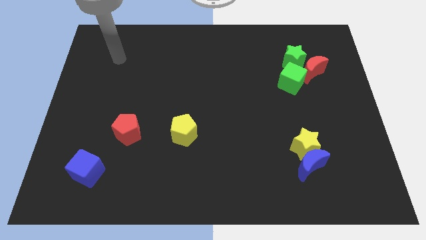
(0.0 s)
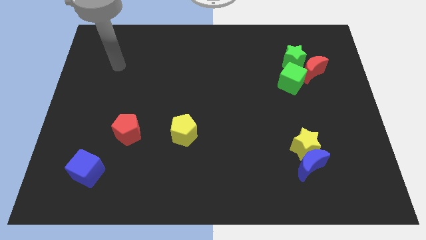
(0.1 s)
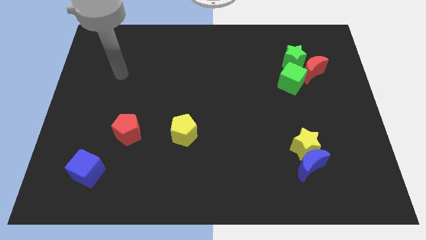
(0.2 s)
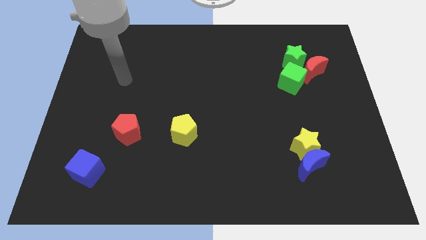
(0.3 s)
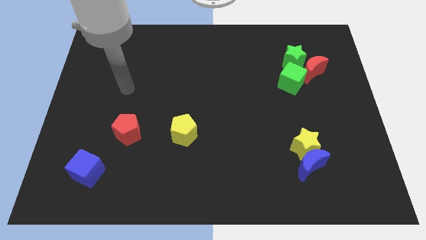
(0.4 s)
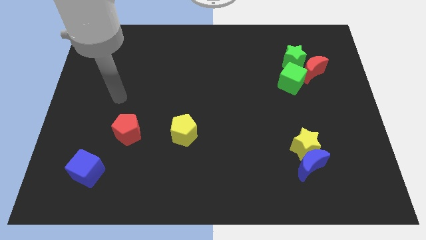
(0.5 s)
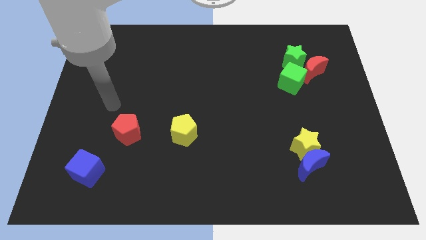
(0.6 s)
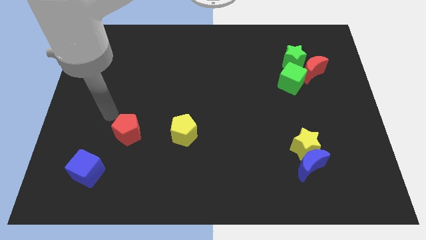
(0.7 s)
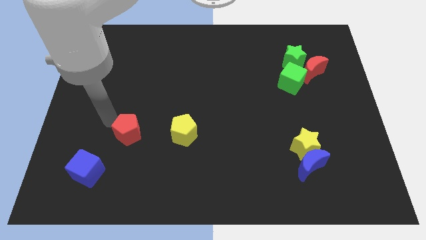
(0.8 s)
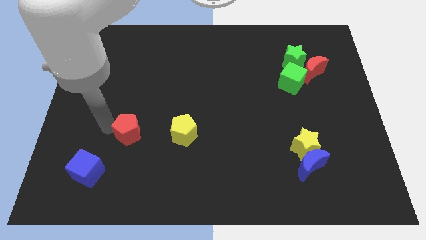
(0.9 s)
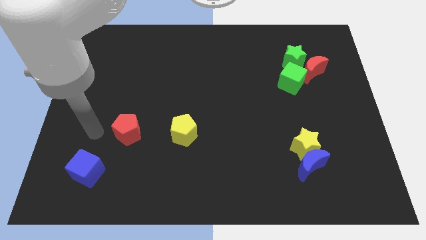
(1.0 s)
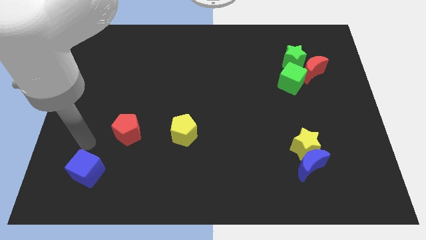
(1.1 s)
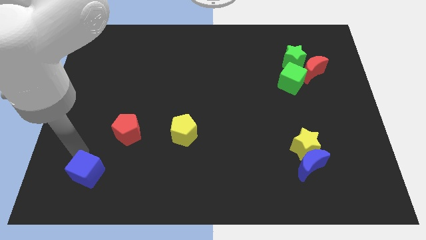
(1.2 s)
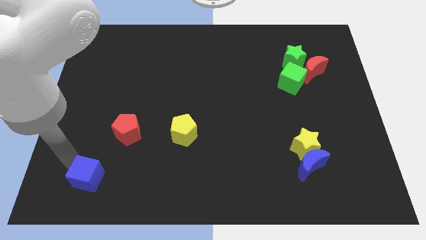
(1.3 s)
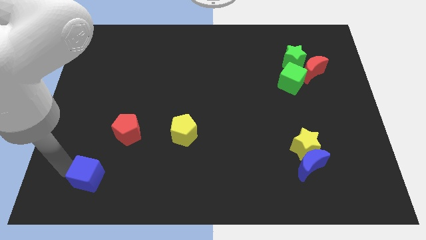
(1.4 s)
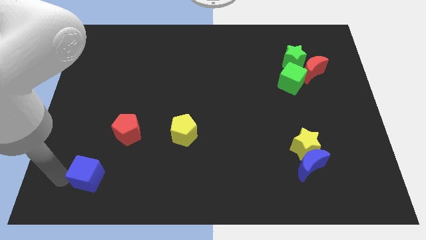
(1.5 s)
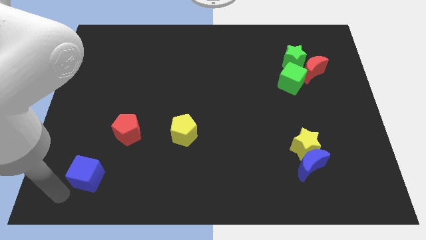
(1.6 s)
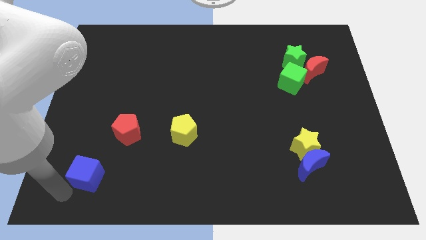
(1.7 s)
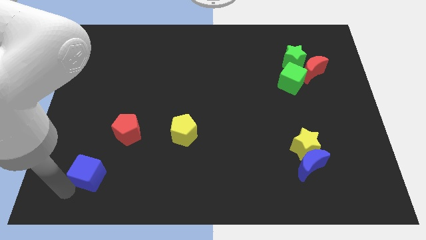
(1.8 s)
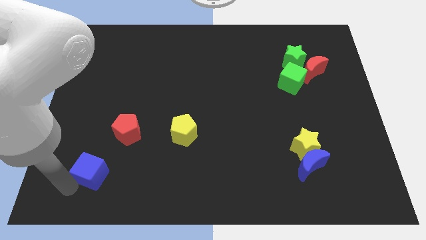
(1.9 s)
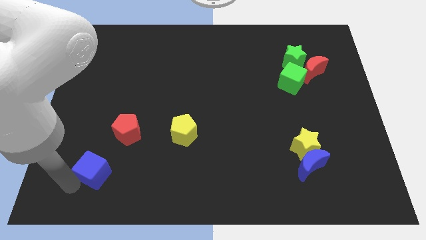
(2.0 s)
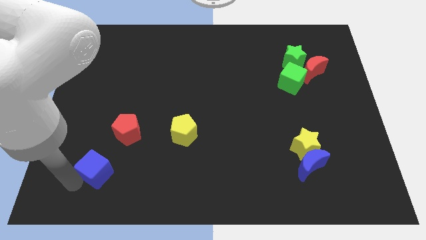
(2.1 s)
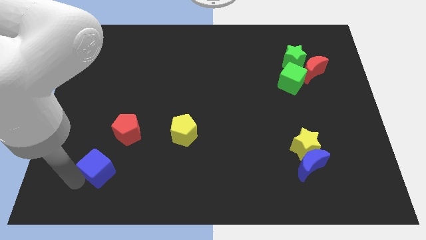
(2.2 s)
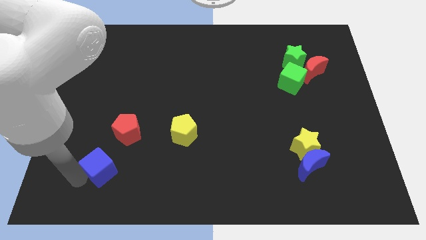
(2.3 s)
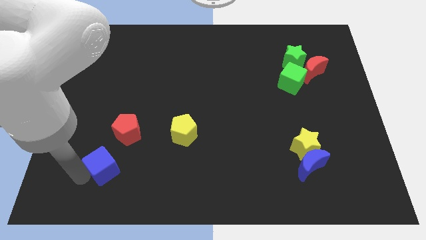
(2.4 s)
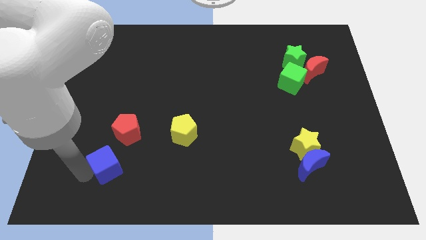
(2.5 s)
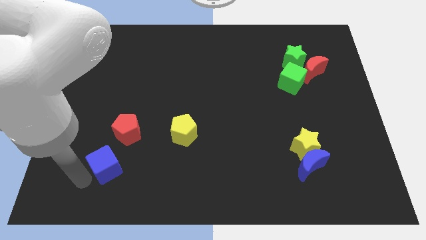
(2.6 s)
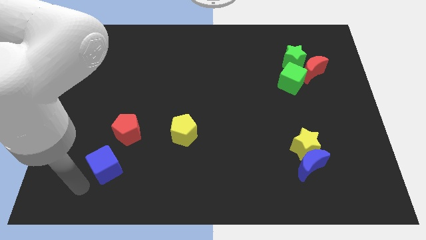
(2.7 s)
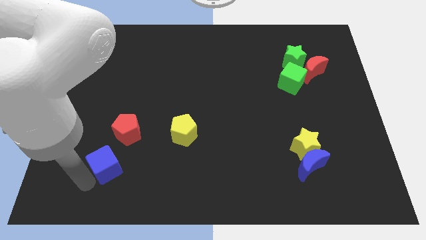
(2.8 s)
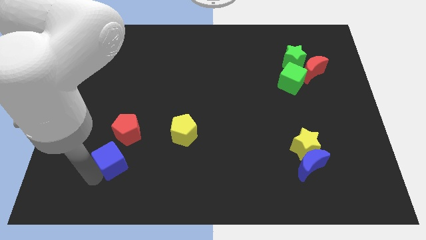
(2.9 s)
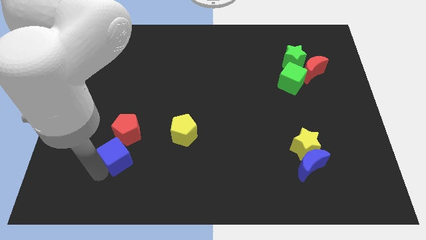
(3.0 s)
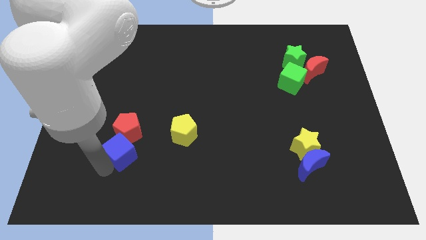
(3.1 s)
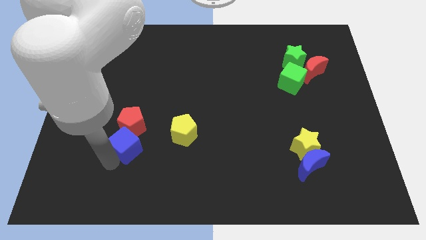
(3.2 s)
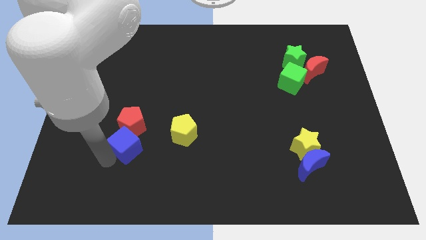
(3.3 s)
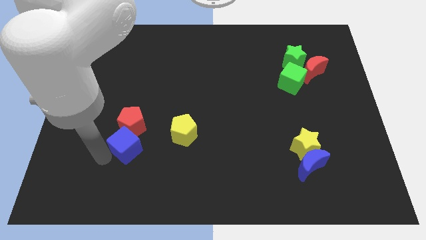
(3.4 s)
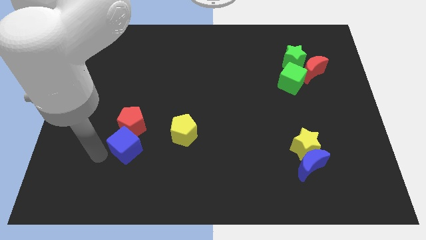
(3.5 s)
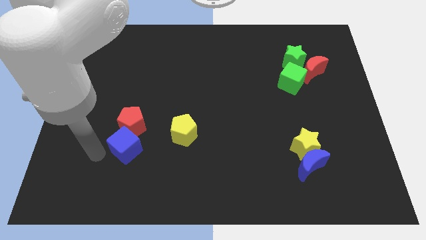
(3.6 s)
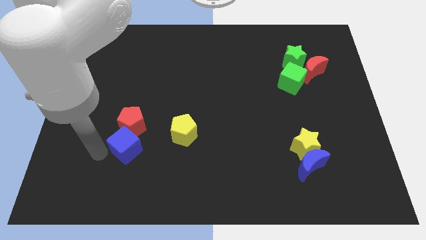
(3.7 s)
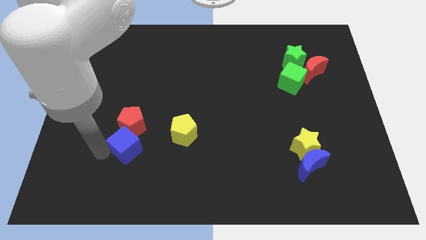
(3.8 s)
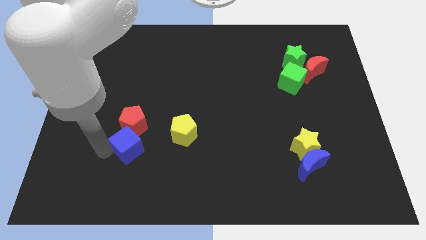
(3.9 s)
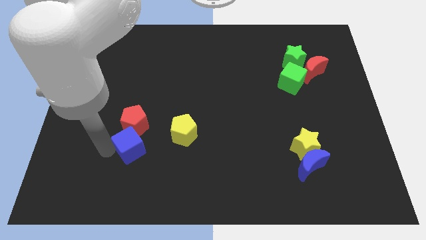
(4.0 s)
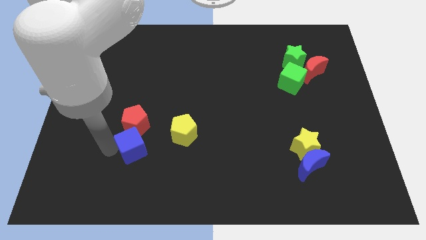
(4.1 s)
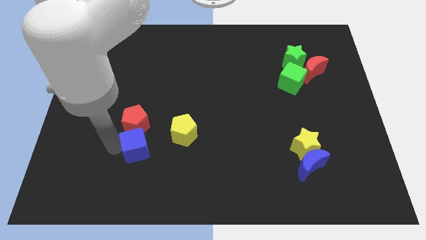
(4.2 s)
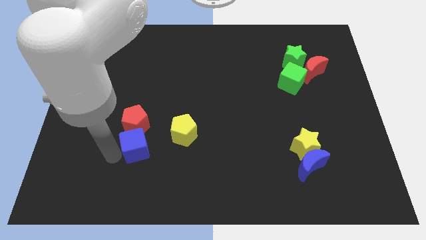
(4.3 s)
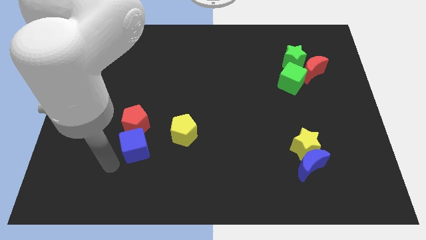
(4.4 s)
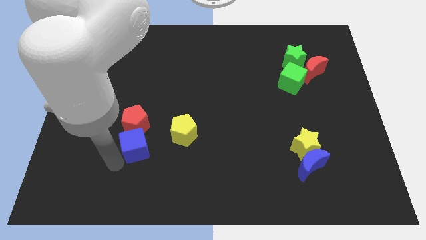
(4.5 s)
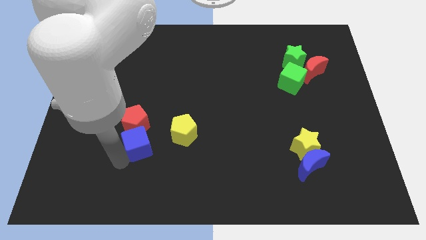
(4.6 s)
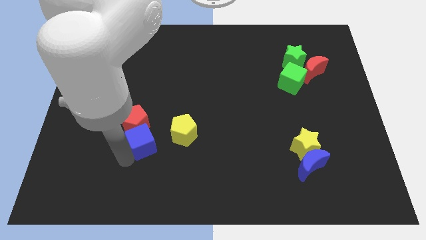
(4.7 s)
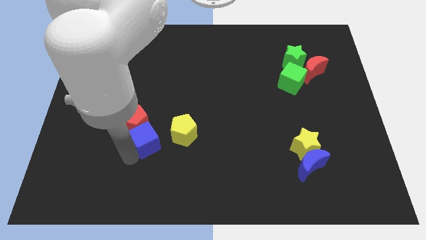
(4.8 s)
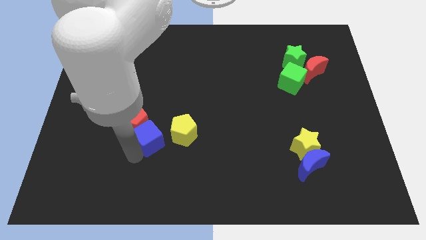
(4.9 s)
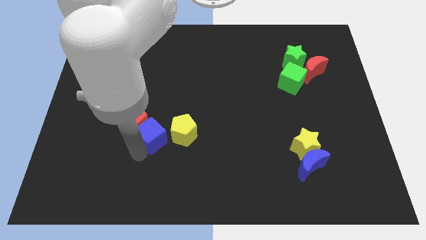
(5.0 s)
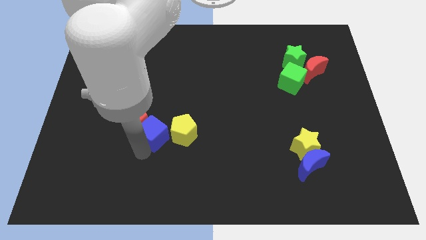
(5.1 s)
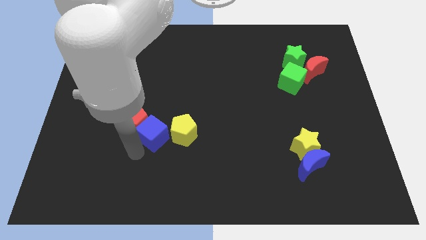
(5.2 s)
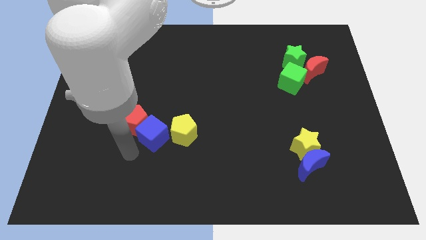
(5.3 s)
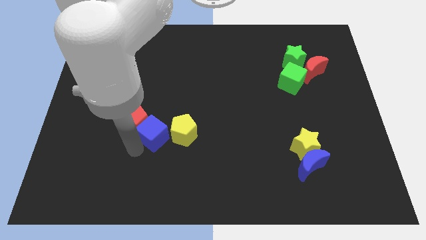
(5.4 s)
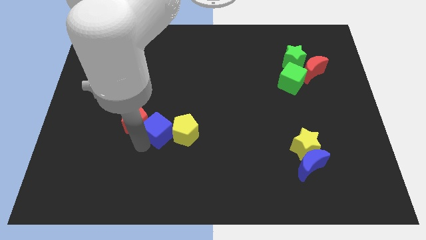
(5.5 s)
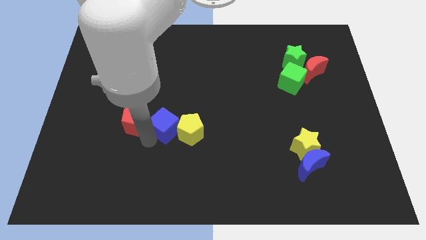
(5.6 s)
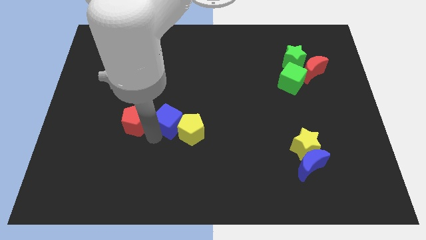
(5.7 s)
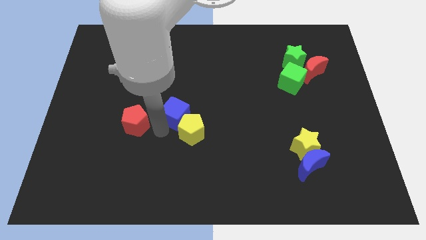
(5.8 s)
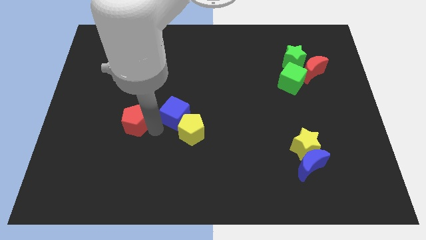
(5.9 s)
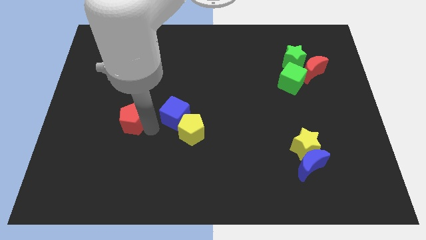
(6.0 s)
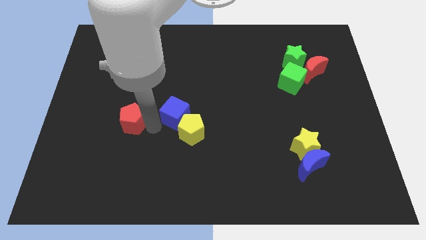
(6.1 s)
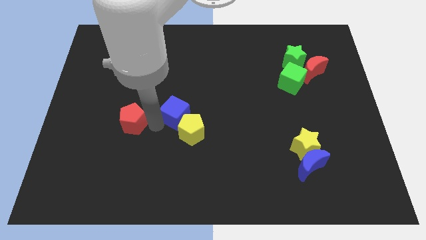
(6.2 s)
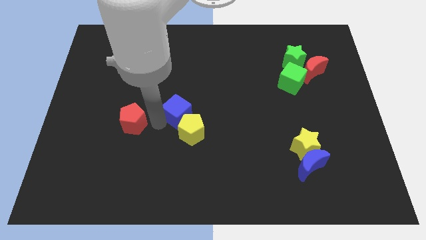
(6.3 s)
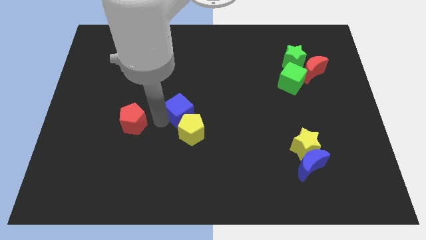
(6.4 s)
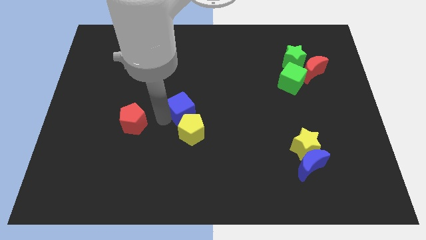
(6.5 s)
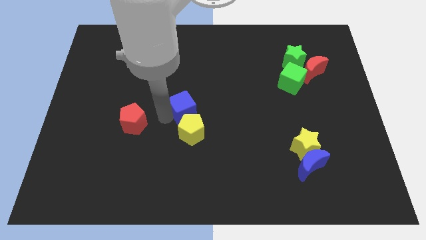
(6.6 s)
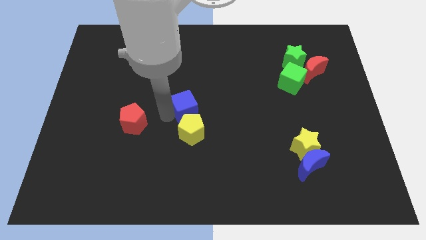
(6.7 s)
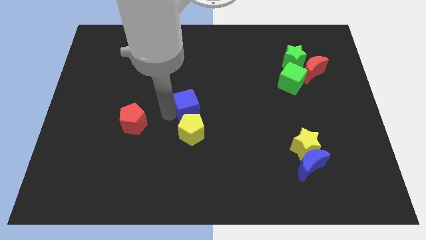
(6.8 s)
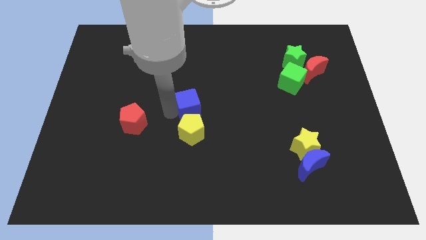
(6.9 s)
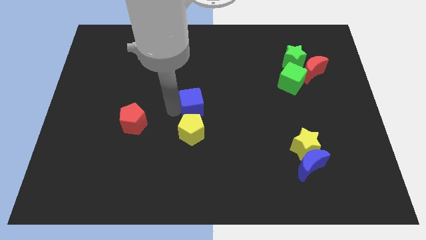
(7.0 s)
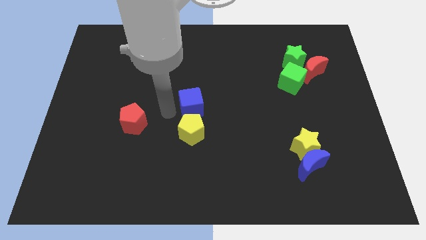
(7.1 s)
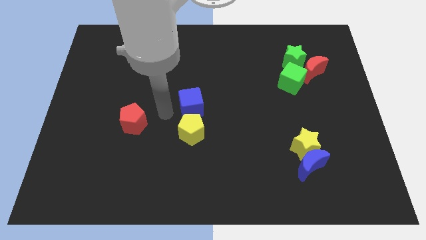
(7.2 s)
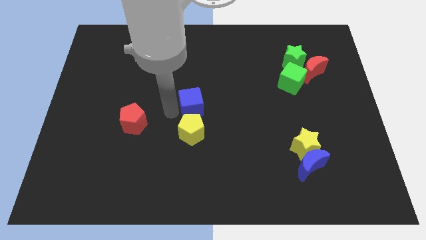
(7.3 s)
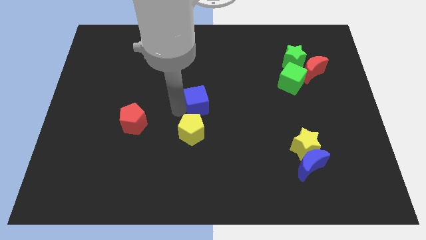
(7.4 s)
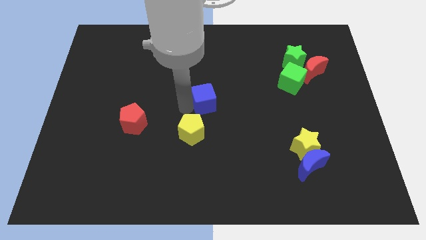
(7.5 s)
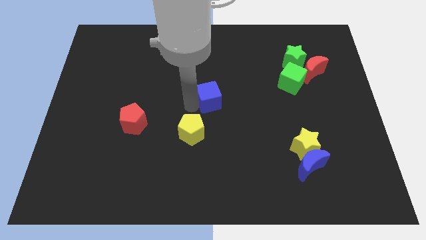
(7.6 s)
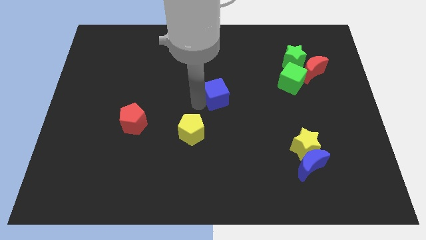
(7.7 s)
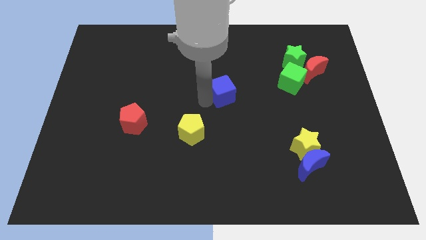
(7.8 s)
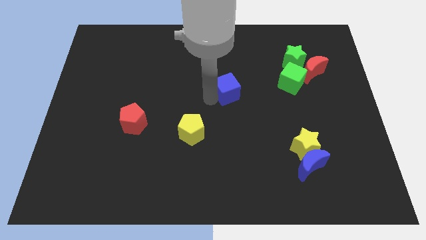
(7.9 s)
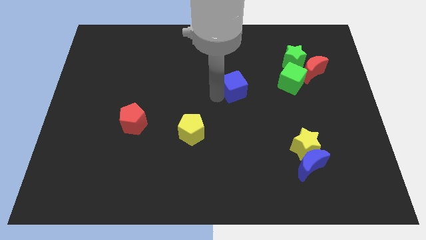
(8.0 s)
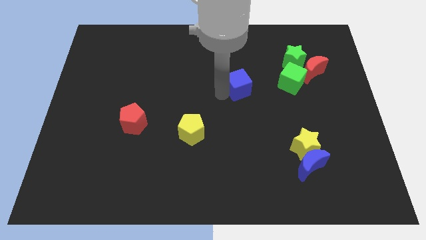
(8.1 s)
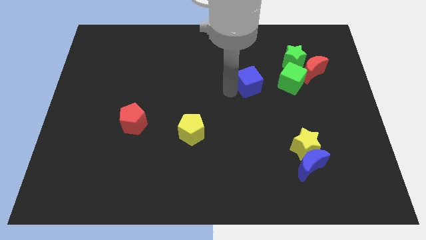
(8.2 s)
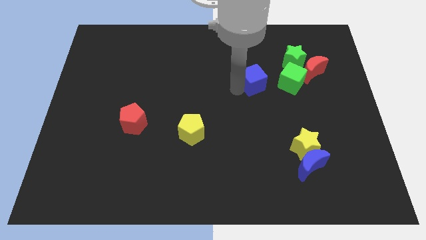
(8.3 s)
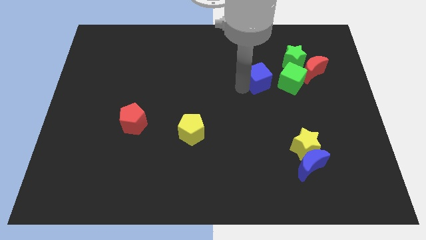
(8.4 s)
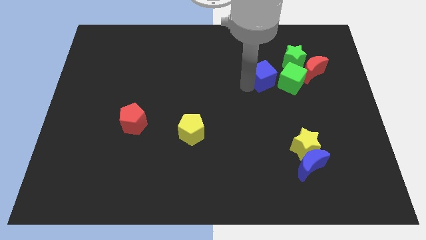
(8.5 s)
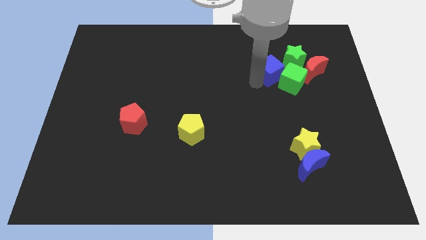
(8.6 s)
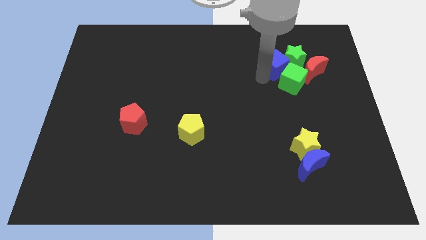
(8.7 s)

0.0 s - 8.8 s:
slide the blue cube next to the green star
